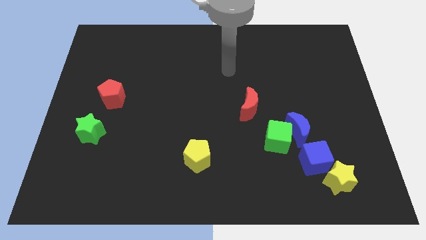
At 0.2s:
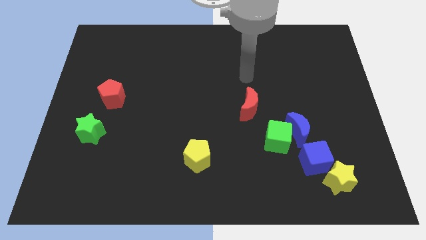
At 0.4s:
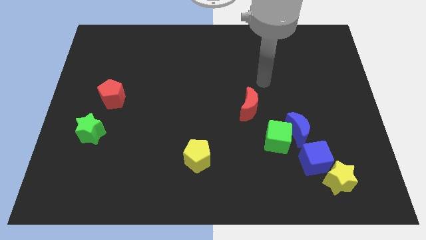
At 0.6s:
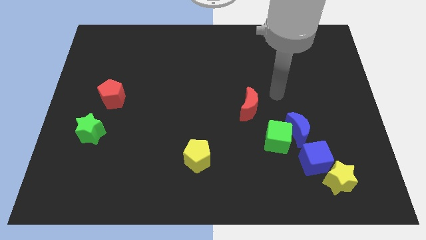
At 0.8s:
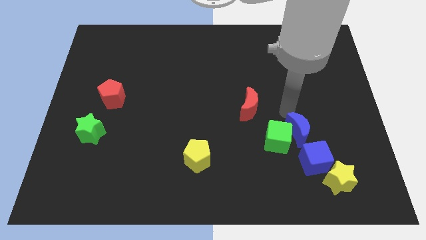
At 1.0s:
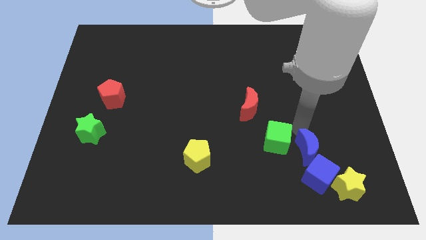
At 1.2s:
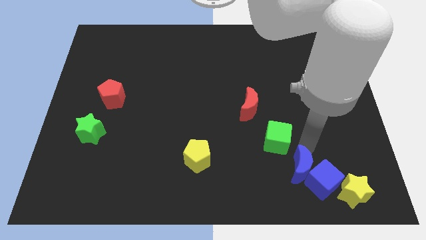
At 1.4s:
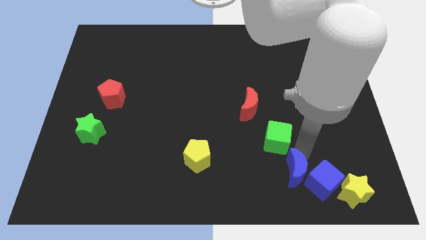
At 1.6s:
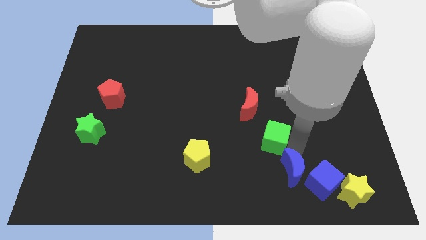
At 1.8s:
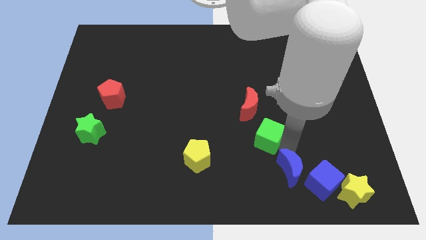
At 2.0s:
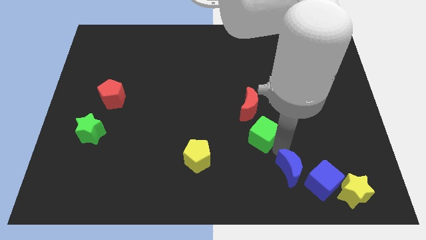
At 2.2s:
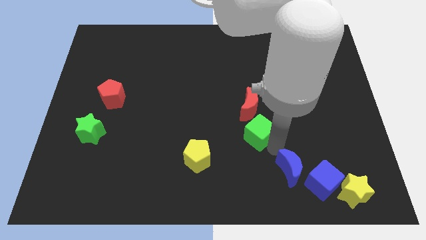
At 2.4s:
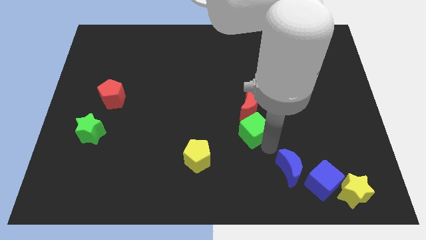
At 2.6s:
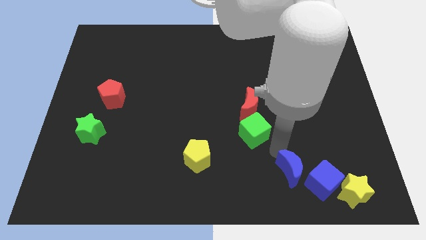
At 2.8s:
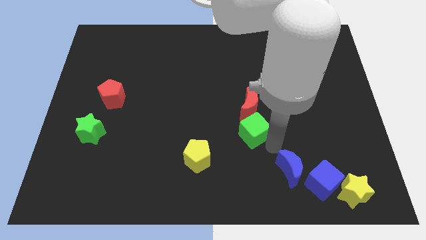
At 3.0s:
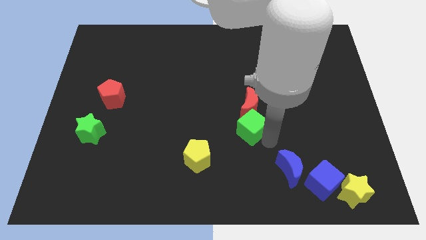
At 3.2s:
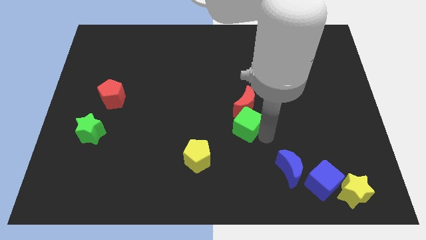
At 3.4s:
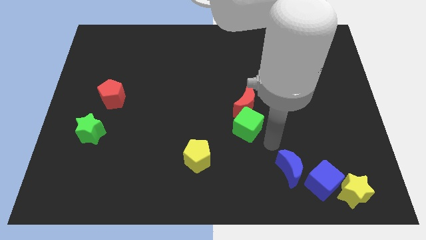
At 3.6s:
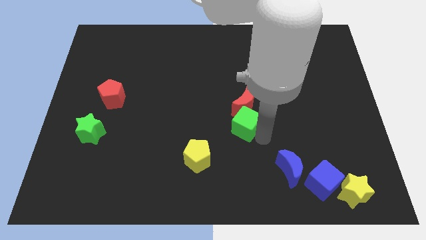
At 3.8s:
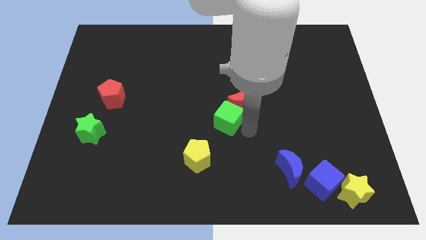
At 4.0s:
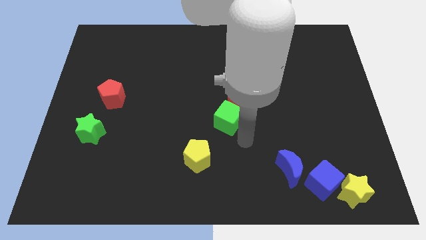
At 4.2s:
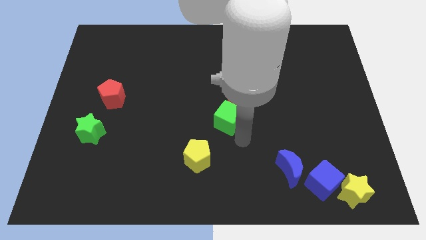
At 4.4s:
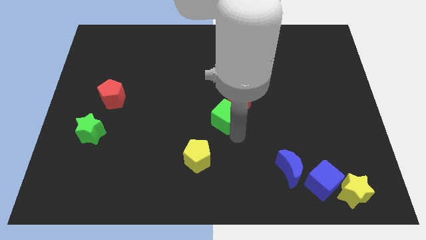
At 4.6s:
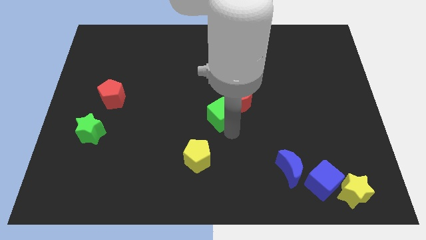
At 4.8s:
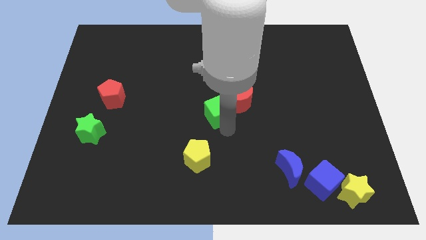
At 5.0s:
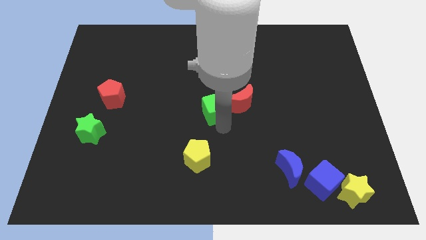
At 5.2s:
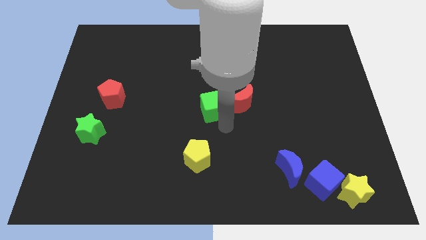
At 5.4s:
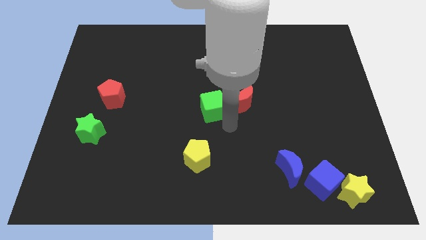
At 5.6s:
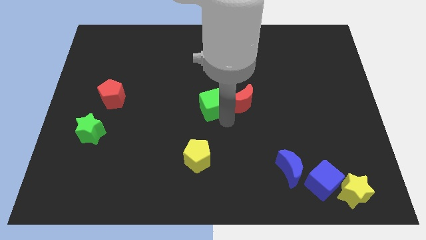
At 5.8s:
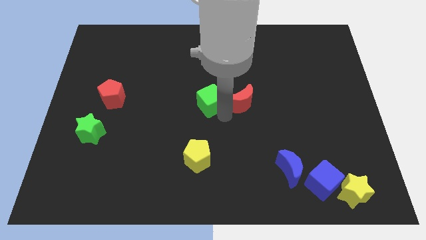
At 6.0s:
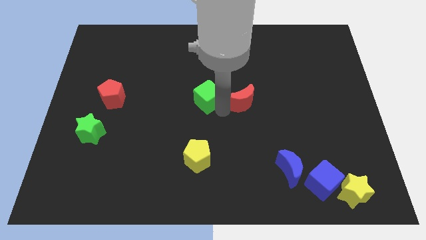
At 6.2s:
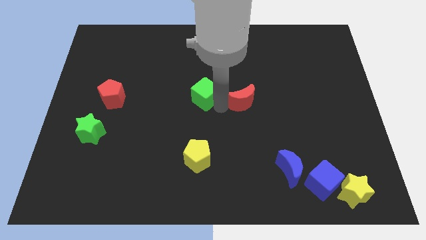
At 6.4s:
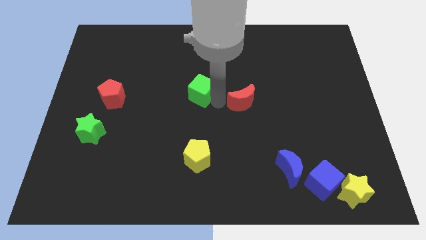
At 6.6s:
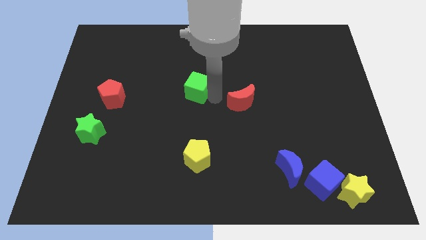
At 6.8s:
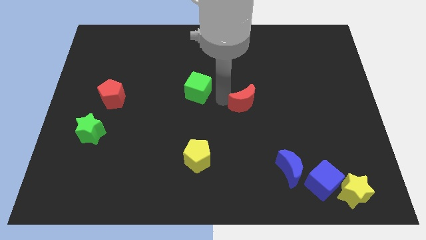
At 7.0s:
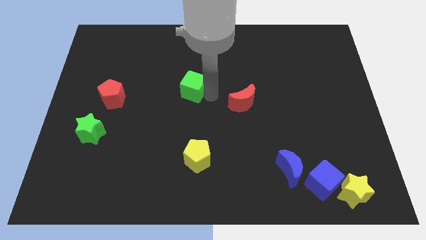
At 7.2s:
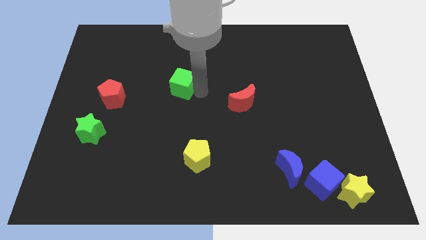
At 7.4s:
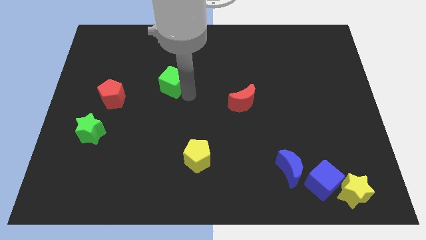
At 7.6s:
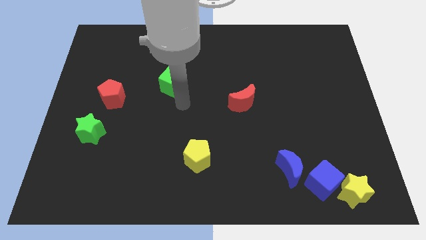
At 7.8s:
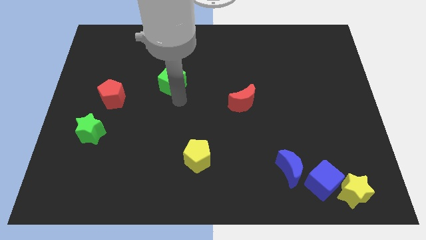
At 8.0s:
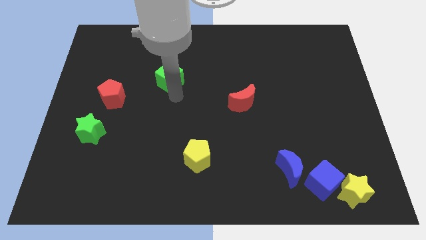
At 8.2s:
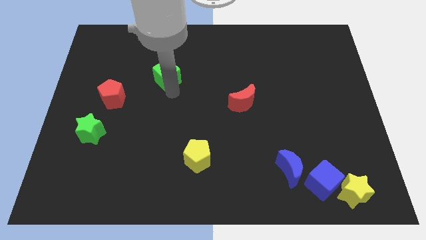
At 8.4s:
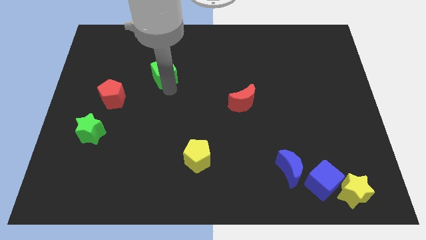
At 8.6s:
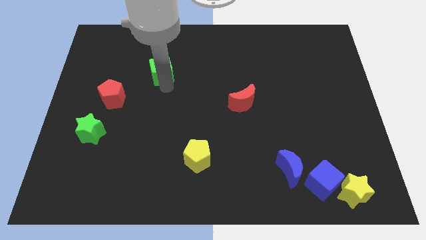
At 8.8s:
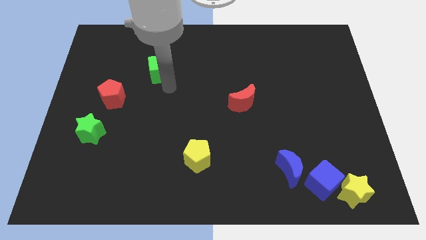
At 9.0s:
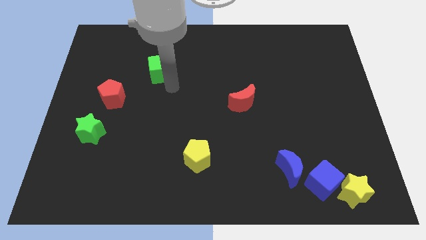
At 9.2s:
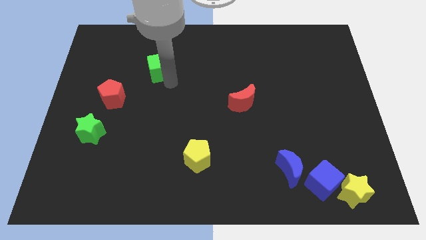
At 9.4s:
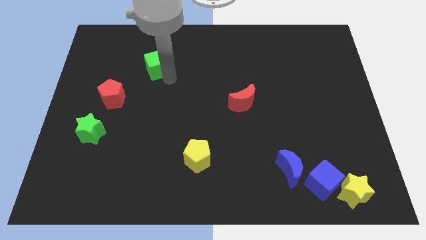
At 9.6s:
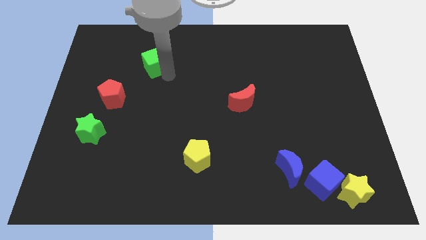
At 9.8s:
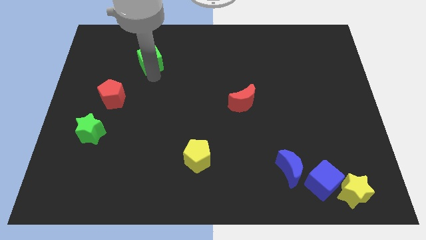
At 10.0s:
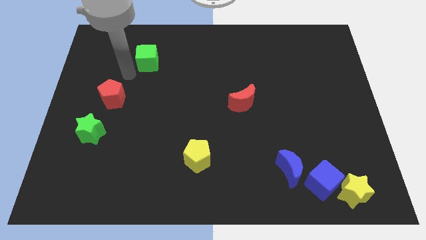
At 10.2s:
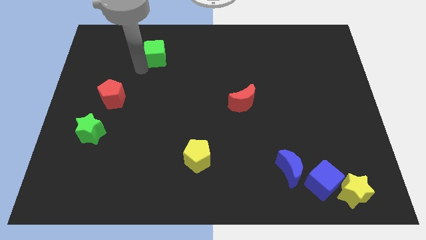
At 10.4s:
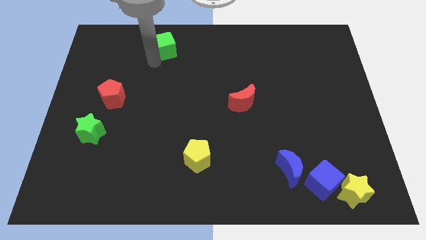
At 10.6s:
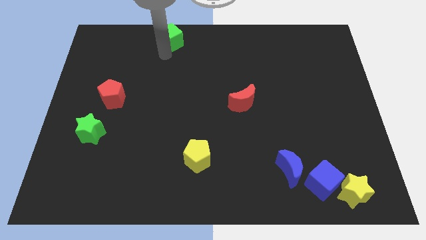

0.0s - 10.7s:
put the green cube to the top side
